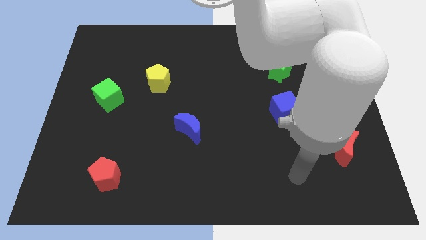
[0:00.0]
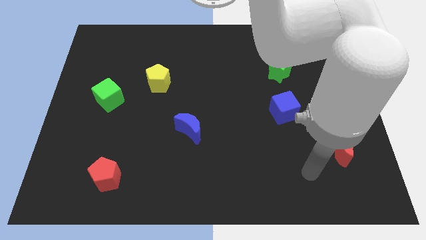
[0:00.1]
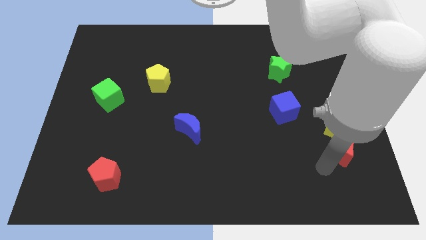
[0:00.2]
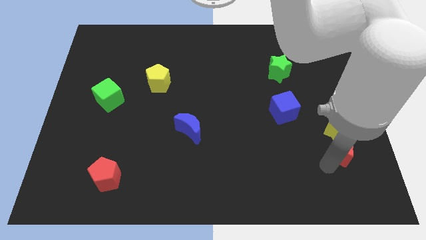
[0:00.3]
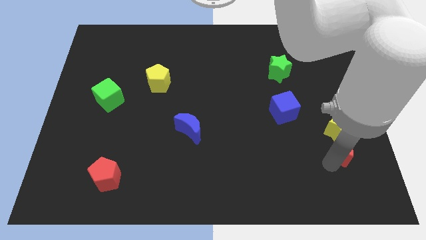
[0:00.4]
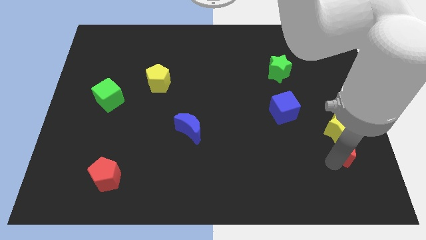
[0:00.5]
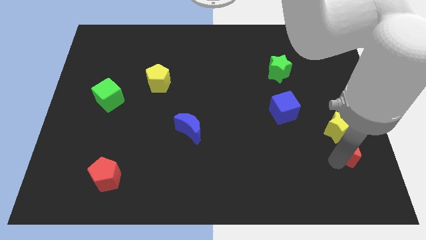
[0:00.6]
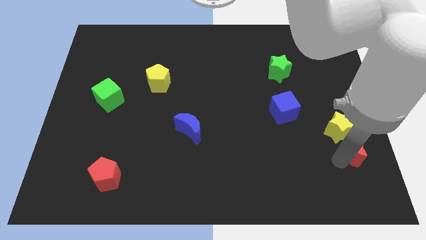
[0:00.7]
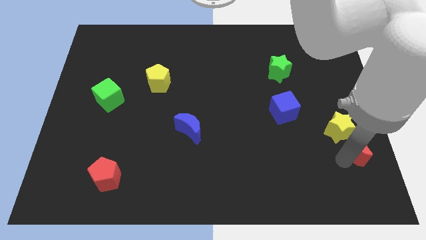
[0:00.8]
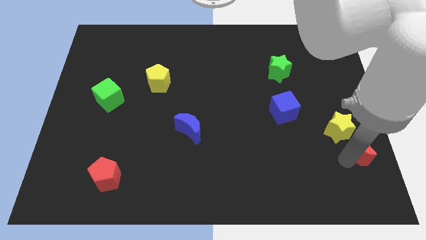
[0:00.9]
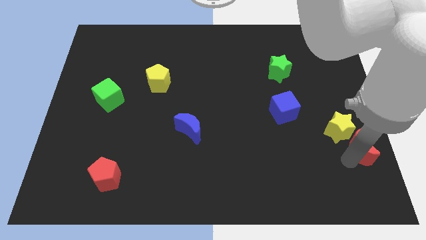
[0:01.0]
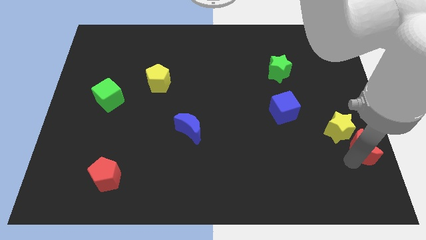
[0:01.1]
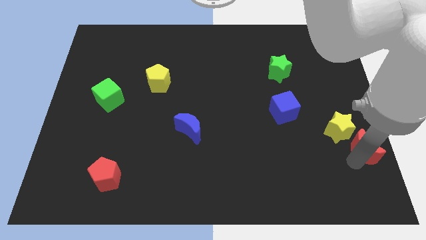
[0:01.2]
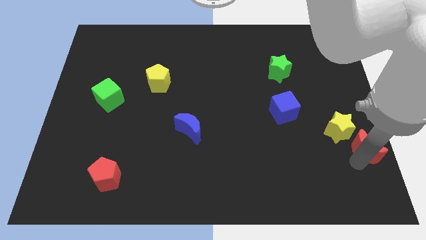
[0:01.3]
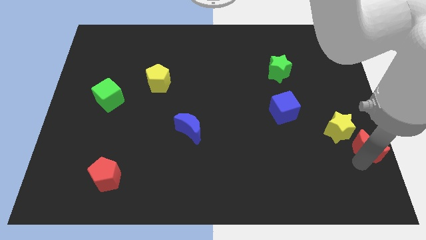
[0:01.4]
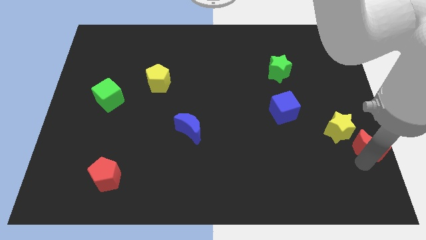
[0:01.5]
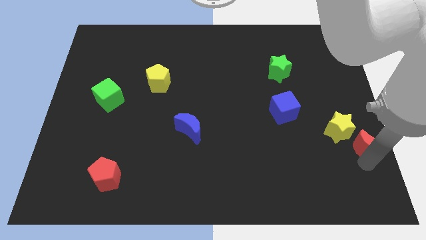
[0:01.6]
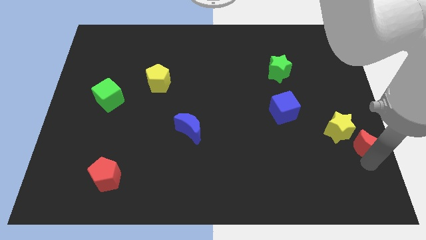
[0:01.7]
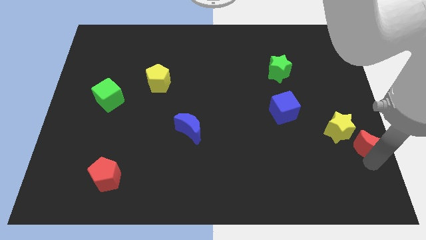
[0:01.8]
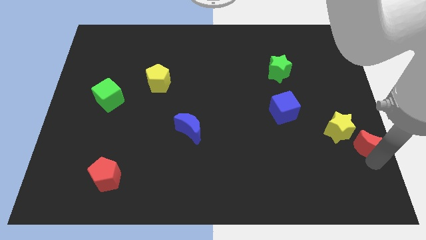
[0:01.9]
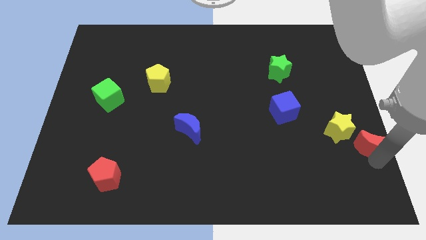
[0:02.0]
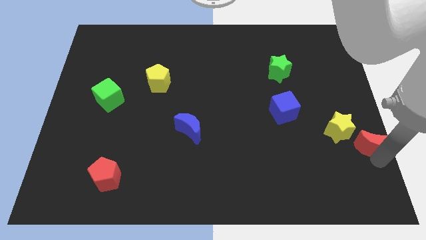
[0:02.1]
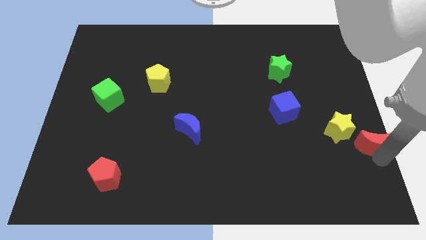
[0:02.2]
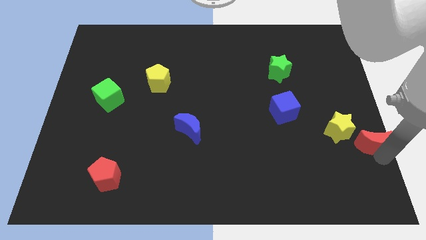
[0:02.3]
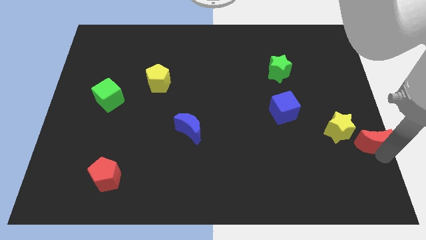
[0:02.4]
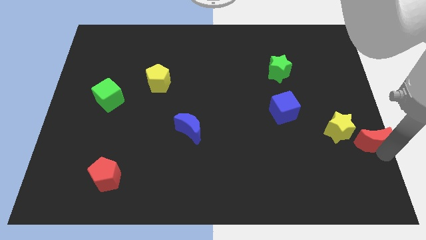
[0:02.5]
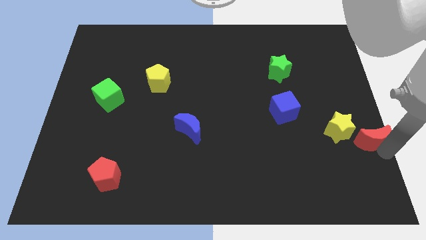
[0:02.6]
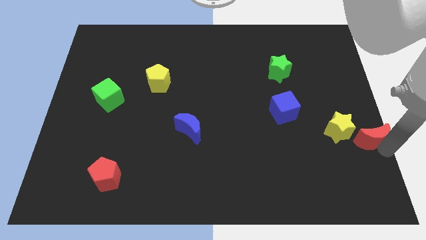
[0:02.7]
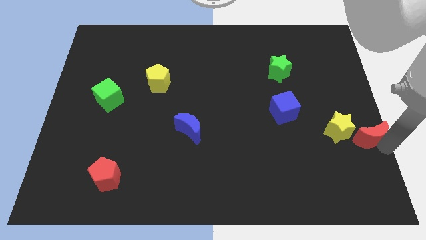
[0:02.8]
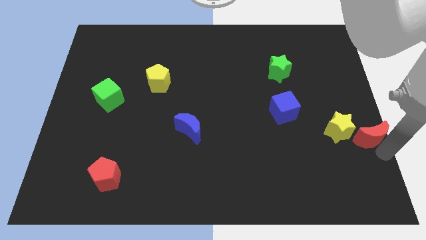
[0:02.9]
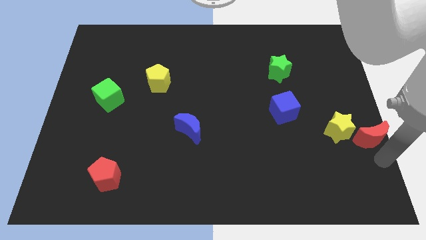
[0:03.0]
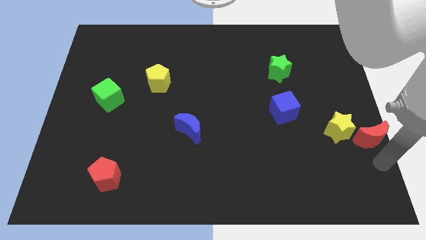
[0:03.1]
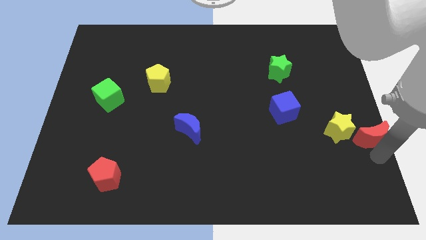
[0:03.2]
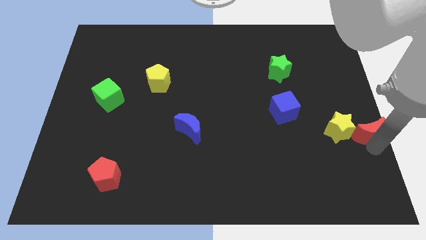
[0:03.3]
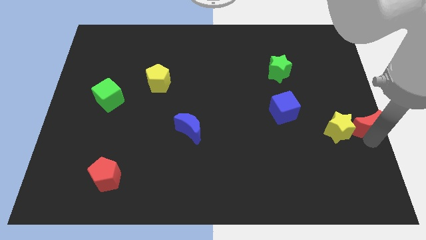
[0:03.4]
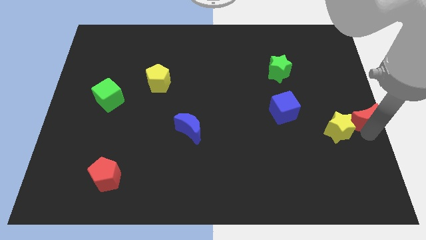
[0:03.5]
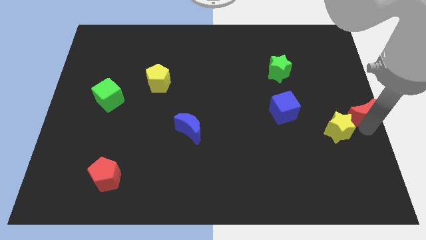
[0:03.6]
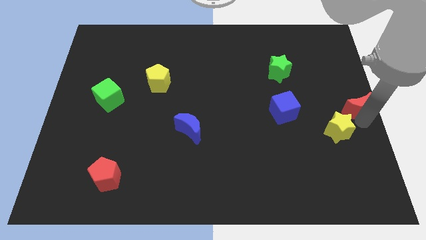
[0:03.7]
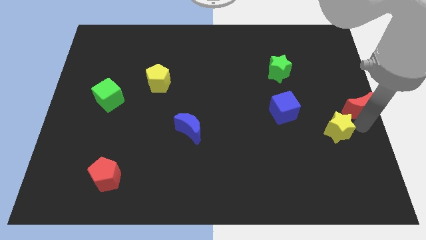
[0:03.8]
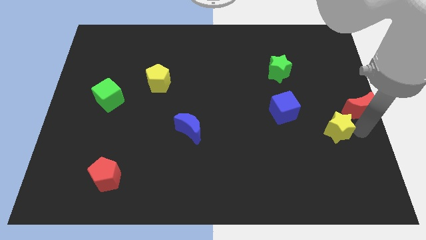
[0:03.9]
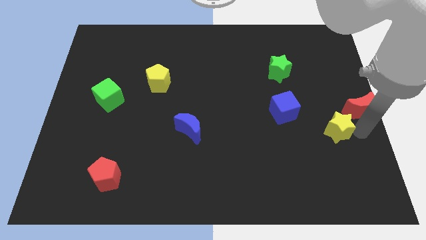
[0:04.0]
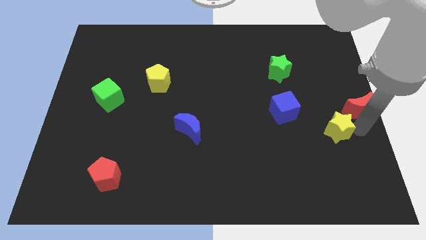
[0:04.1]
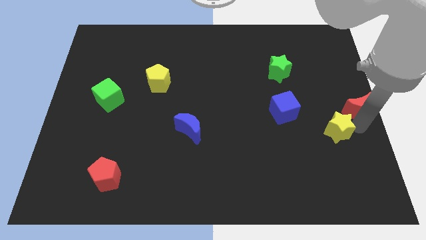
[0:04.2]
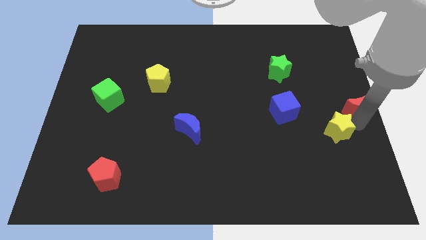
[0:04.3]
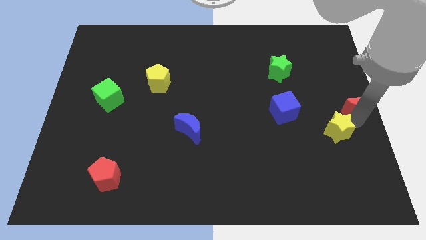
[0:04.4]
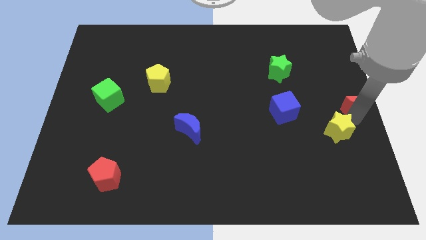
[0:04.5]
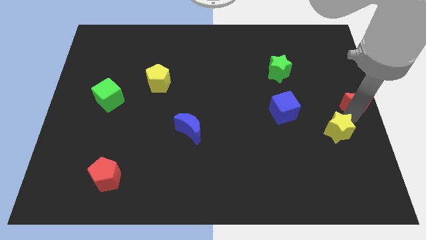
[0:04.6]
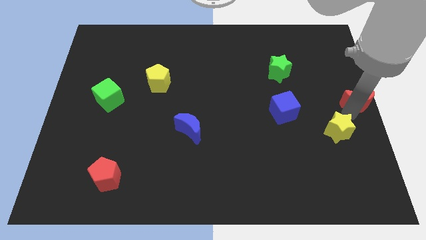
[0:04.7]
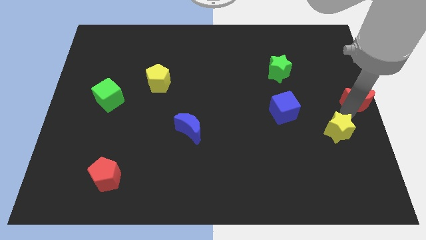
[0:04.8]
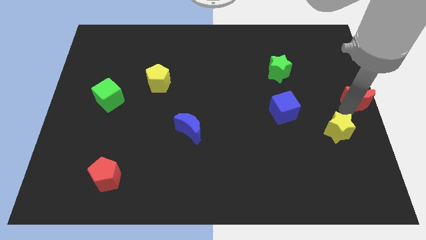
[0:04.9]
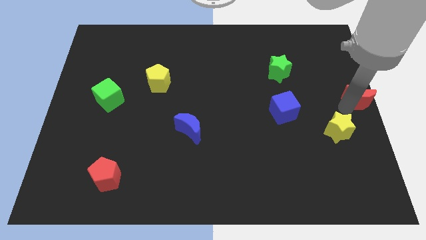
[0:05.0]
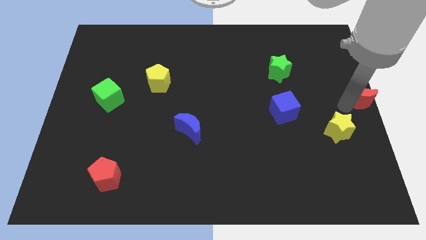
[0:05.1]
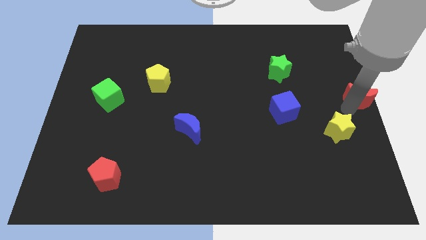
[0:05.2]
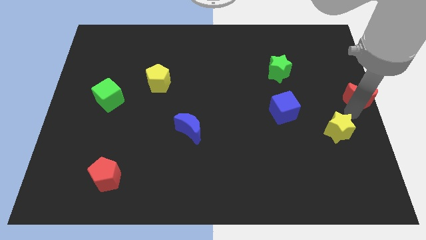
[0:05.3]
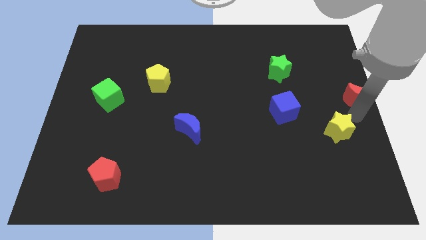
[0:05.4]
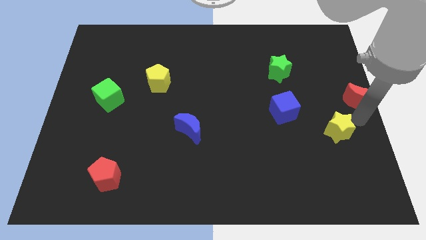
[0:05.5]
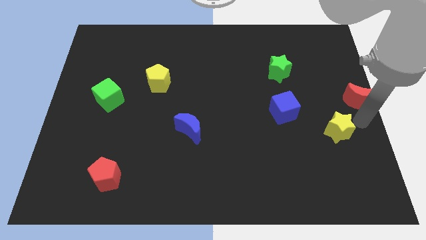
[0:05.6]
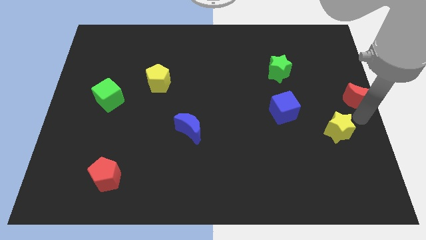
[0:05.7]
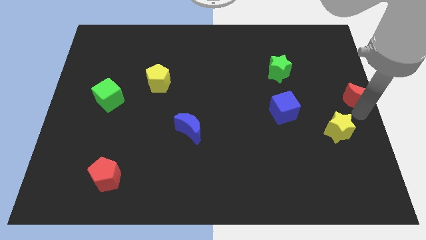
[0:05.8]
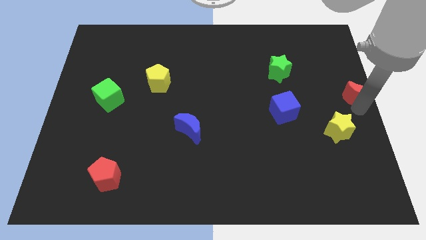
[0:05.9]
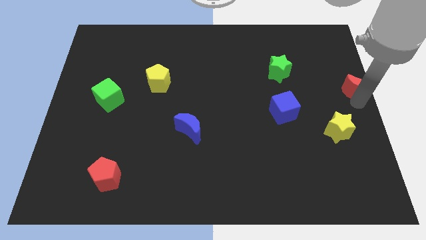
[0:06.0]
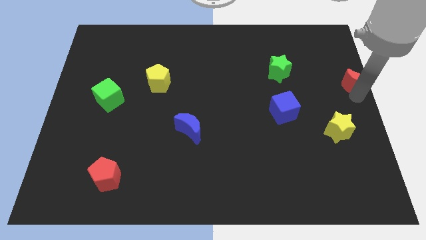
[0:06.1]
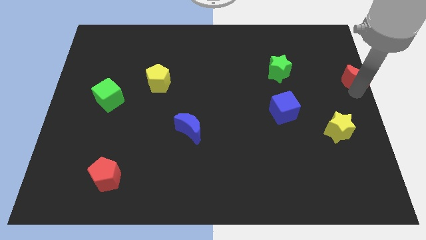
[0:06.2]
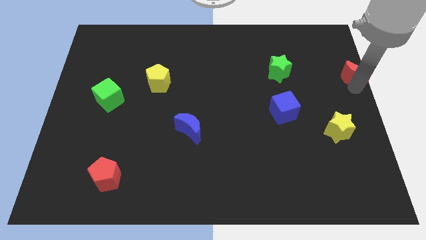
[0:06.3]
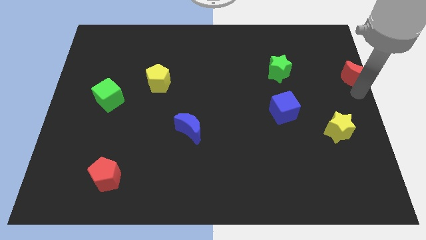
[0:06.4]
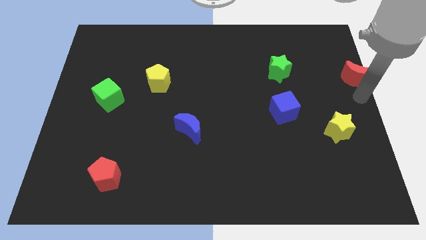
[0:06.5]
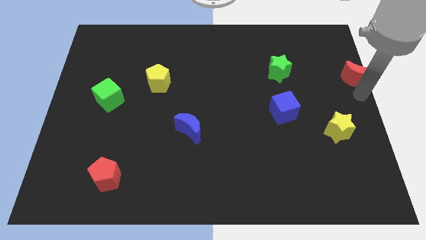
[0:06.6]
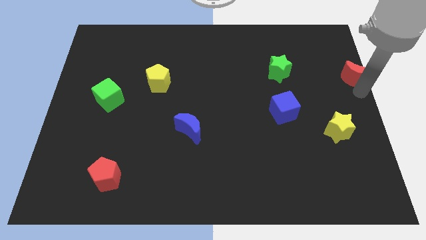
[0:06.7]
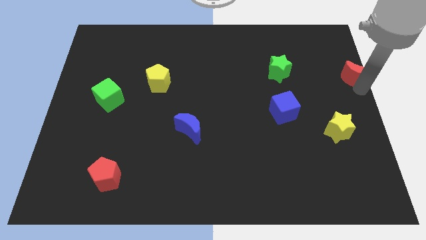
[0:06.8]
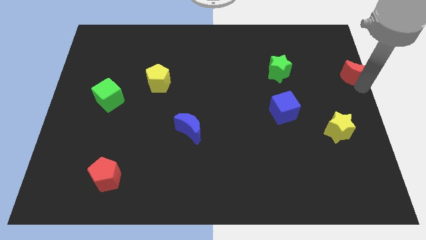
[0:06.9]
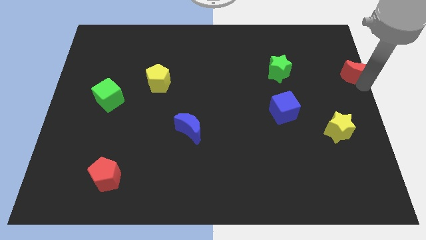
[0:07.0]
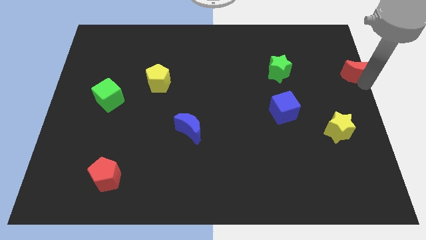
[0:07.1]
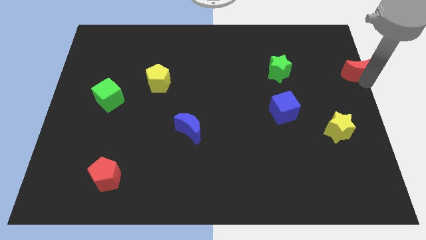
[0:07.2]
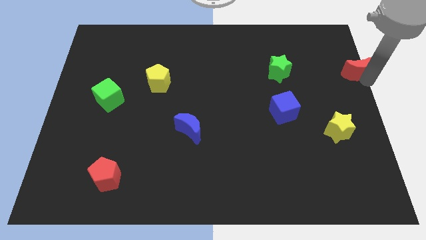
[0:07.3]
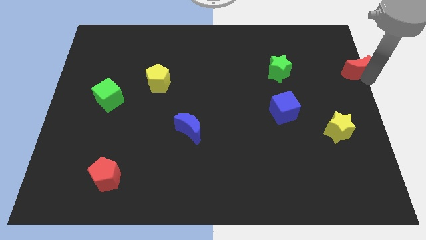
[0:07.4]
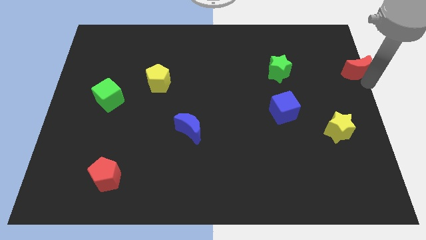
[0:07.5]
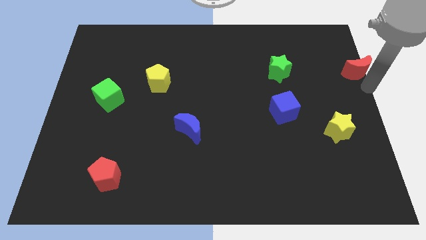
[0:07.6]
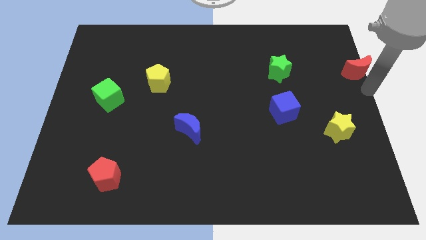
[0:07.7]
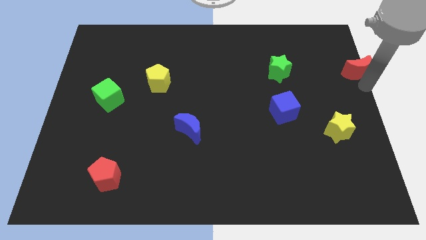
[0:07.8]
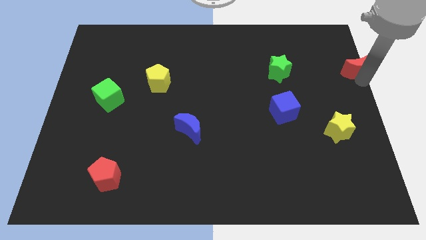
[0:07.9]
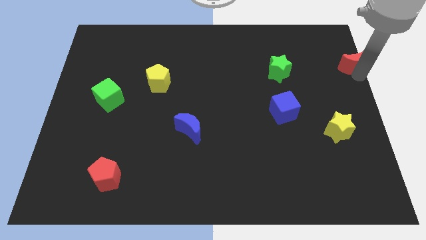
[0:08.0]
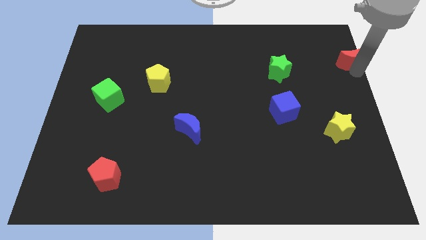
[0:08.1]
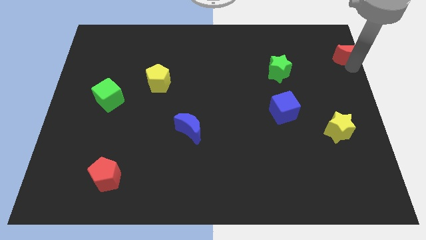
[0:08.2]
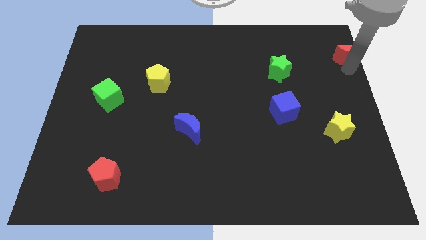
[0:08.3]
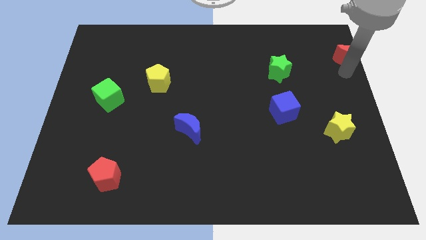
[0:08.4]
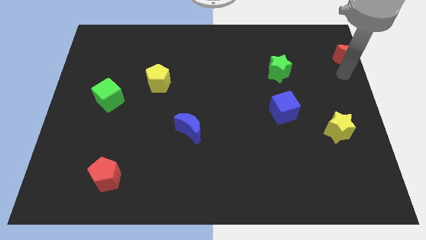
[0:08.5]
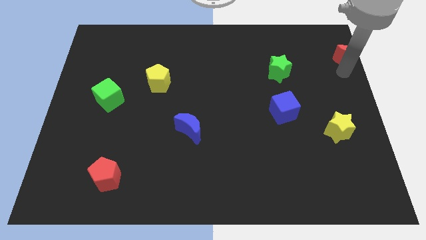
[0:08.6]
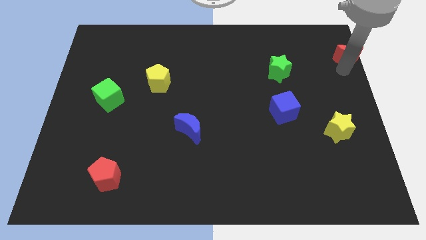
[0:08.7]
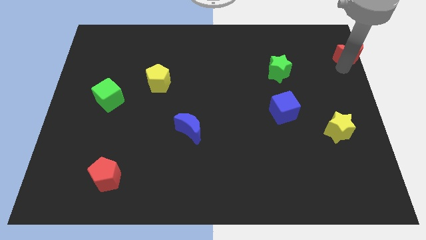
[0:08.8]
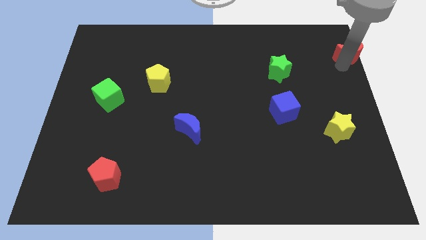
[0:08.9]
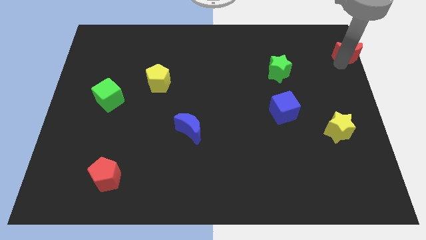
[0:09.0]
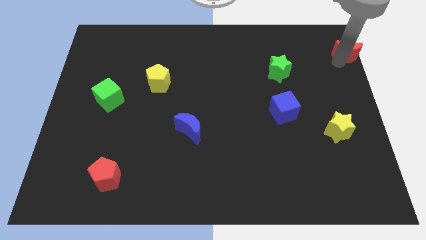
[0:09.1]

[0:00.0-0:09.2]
put the red moon to the top right corner
